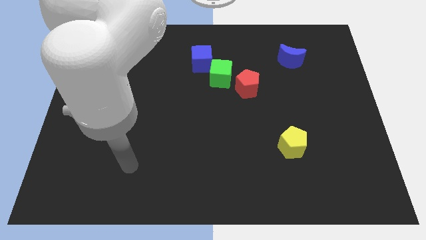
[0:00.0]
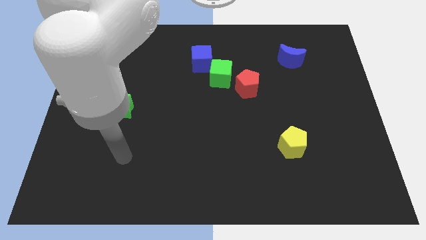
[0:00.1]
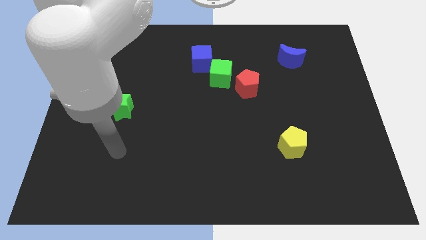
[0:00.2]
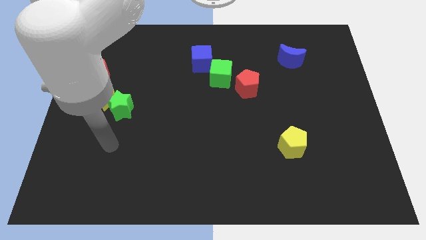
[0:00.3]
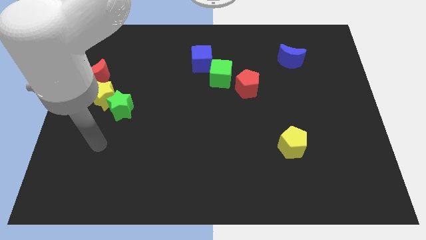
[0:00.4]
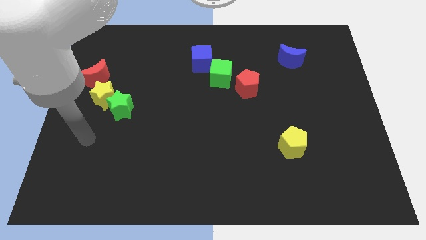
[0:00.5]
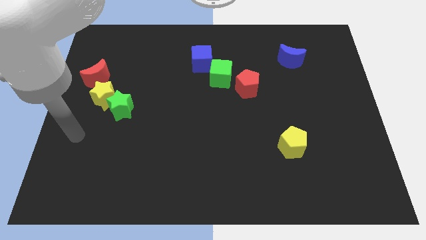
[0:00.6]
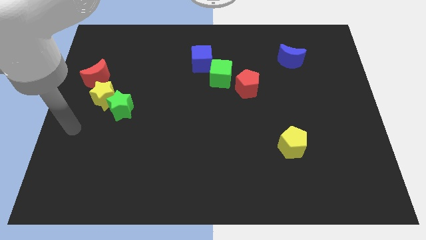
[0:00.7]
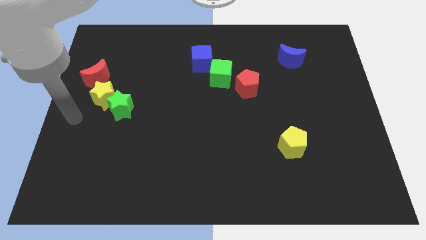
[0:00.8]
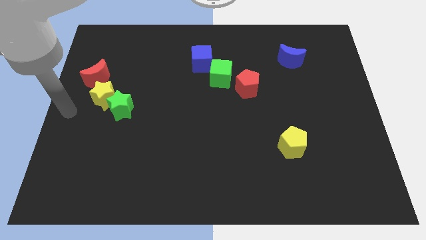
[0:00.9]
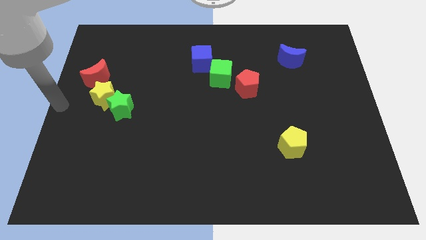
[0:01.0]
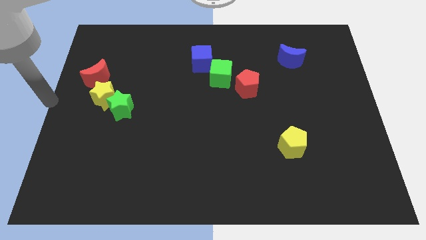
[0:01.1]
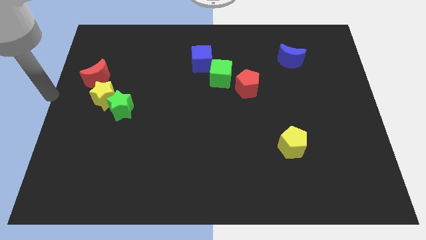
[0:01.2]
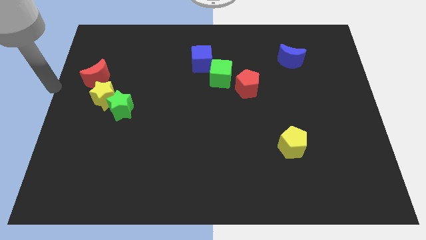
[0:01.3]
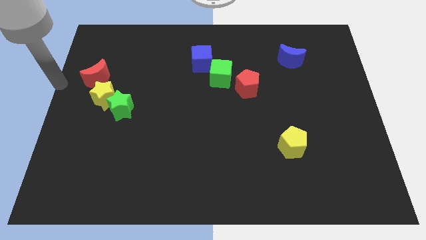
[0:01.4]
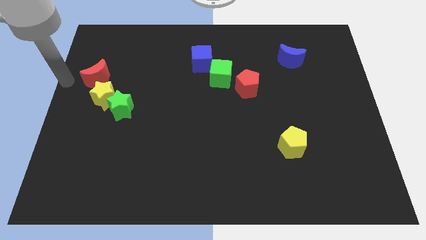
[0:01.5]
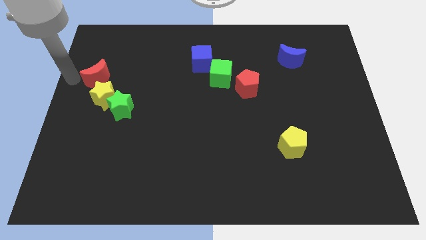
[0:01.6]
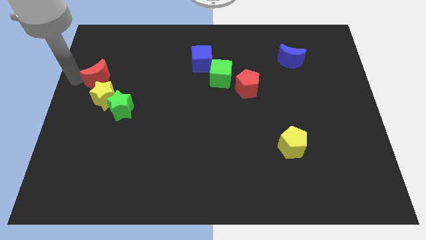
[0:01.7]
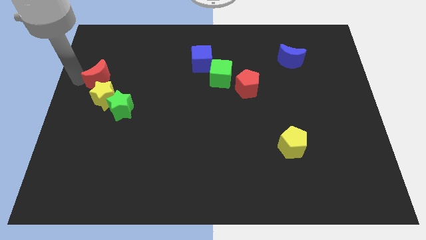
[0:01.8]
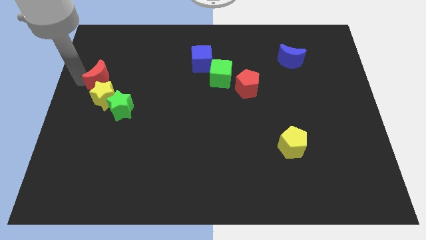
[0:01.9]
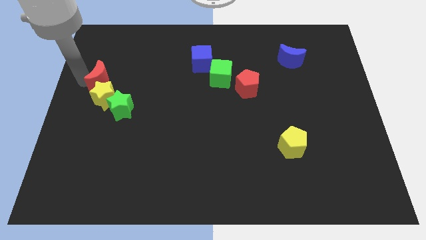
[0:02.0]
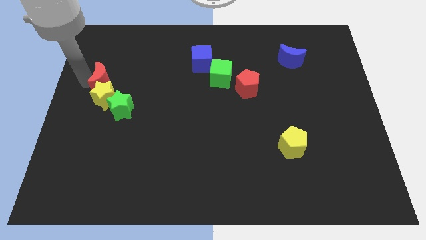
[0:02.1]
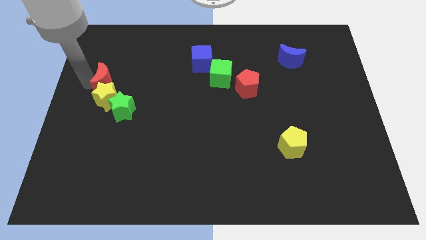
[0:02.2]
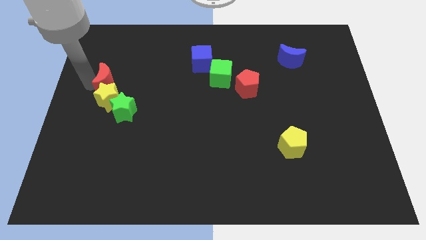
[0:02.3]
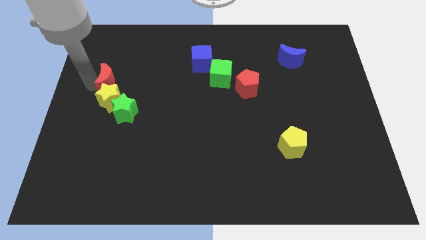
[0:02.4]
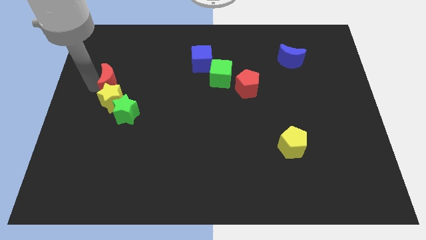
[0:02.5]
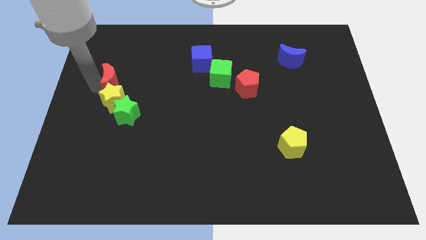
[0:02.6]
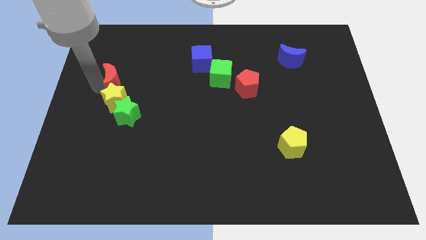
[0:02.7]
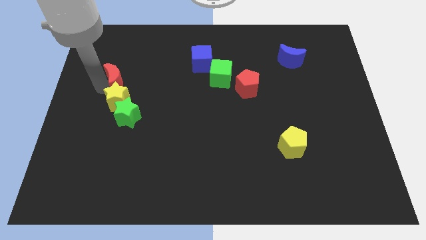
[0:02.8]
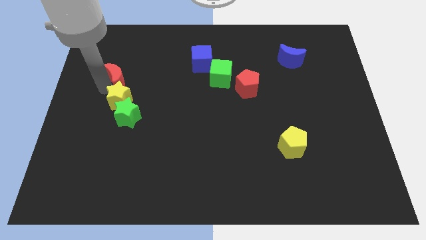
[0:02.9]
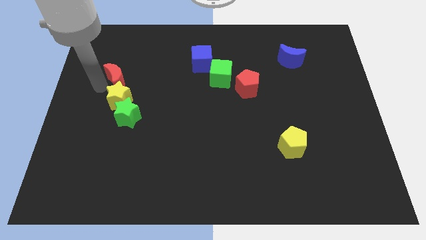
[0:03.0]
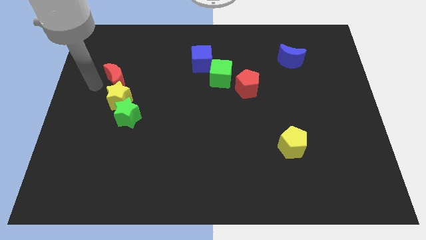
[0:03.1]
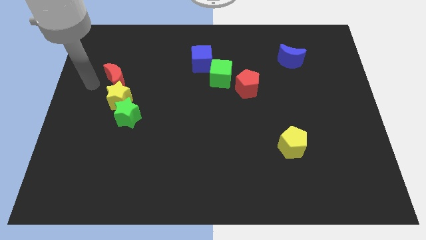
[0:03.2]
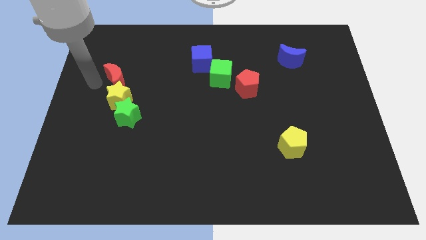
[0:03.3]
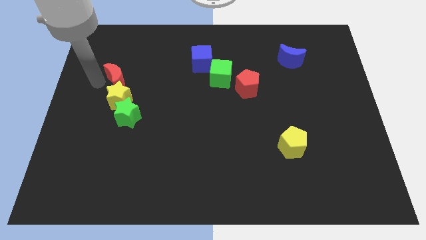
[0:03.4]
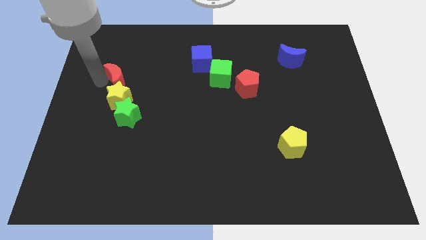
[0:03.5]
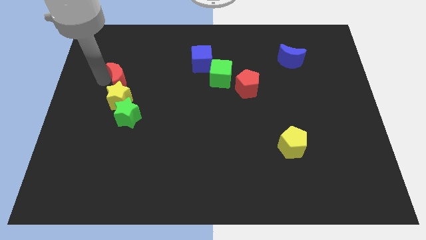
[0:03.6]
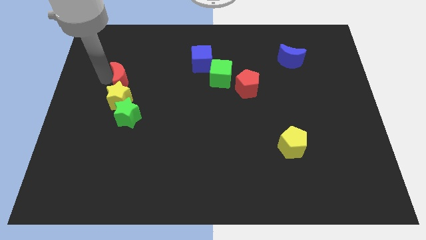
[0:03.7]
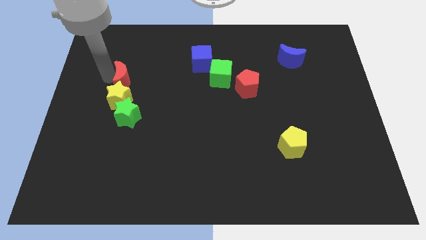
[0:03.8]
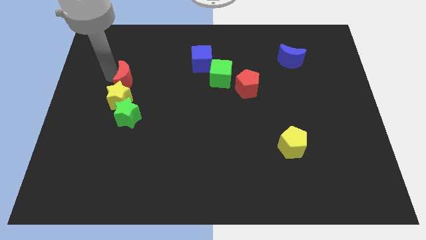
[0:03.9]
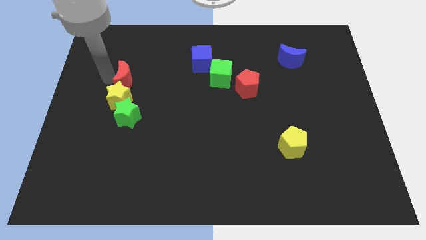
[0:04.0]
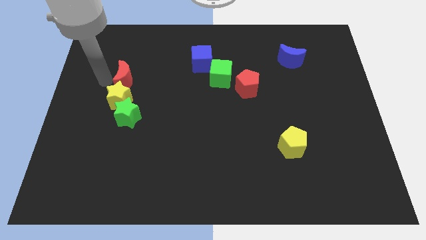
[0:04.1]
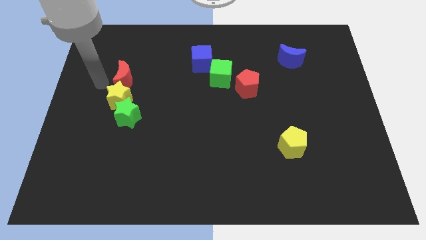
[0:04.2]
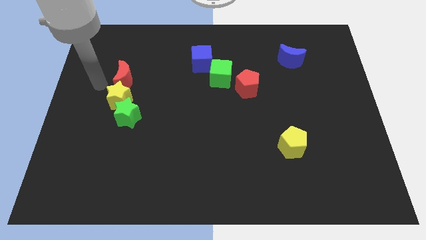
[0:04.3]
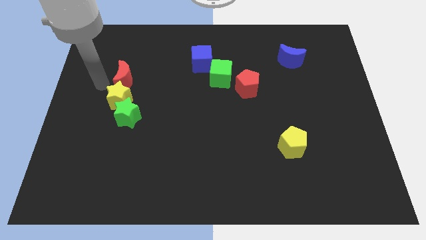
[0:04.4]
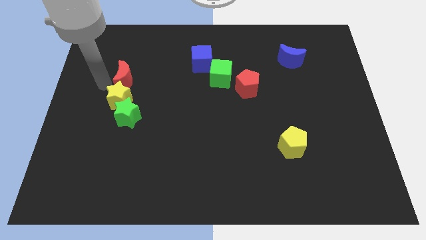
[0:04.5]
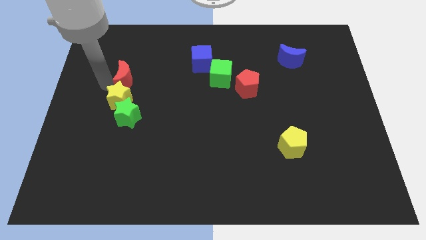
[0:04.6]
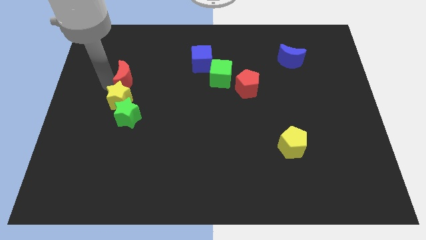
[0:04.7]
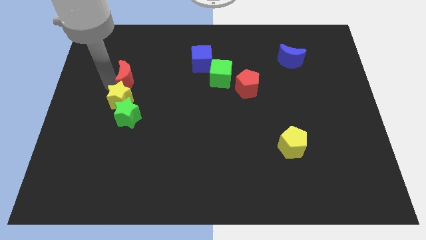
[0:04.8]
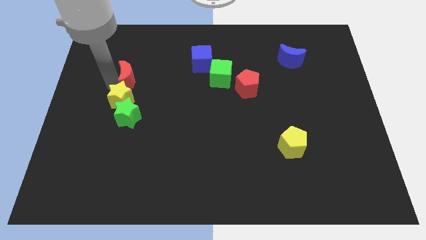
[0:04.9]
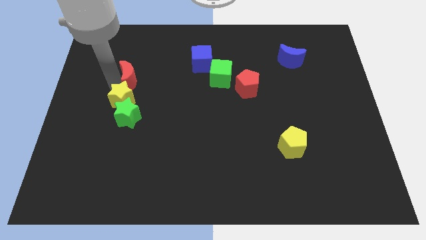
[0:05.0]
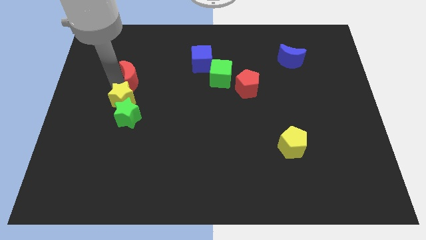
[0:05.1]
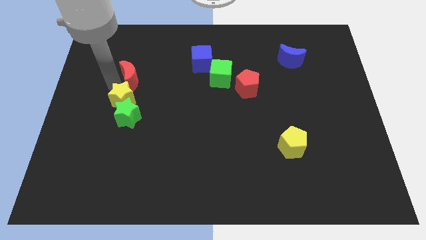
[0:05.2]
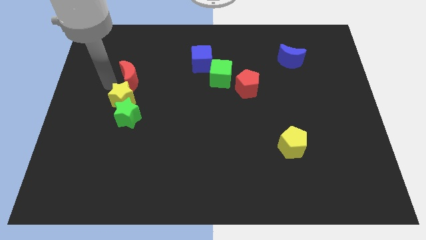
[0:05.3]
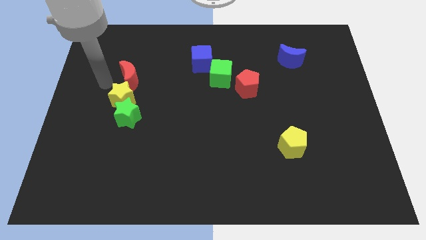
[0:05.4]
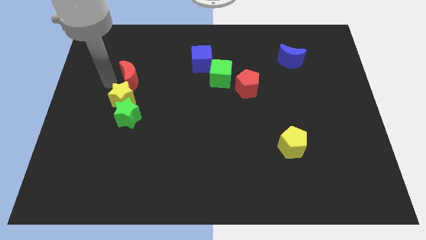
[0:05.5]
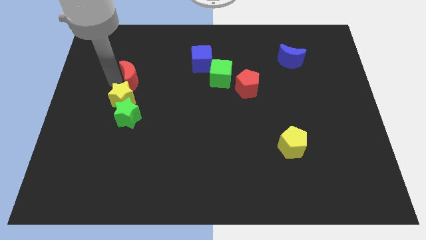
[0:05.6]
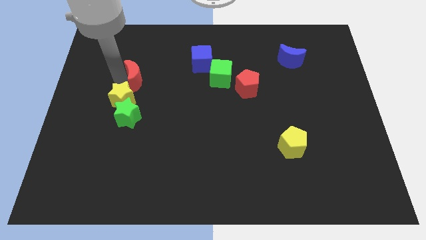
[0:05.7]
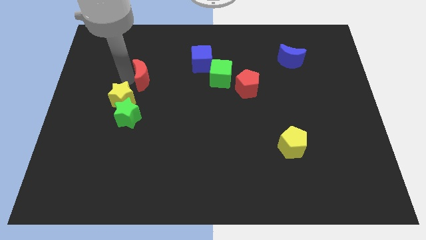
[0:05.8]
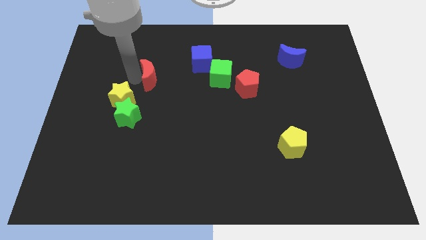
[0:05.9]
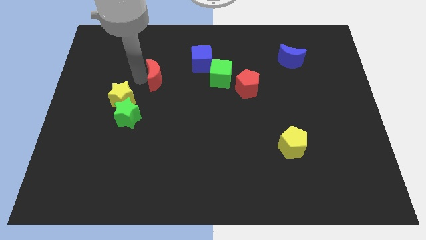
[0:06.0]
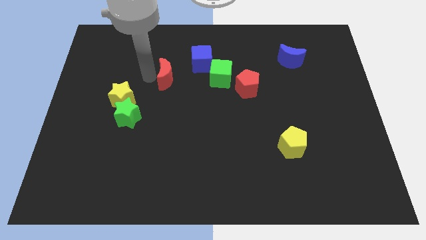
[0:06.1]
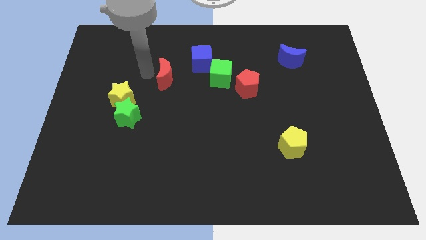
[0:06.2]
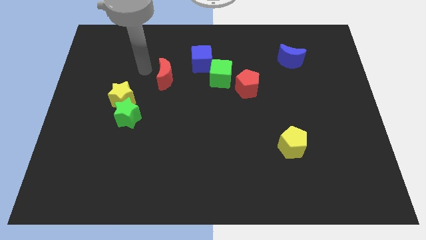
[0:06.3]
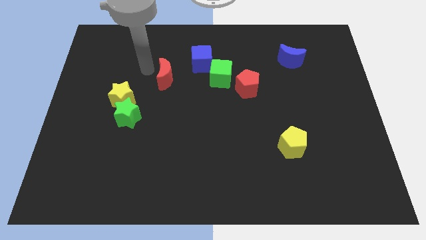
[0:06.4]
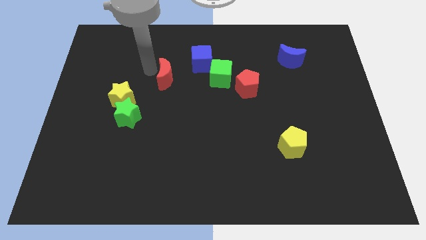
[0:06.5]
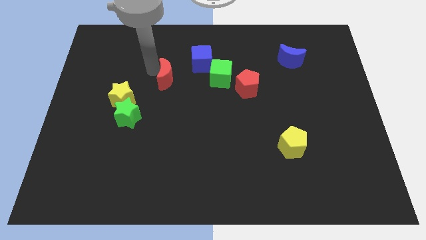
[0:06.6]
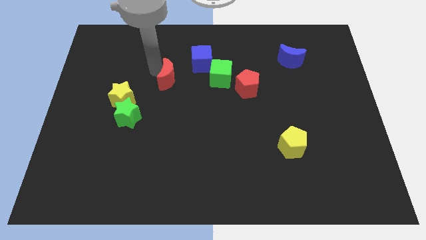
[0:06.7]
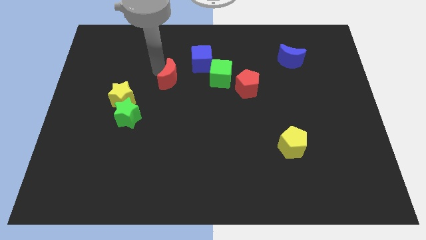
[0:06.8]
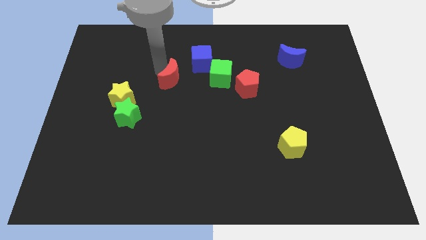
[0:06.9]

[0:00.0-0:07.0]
slide the red moon to the middle of the board

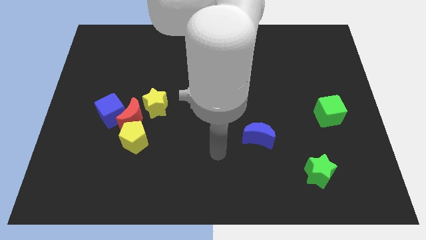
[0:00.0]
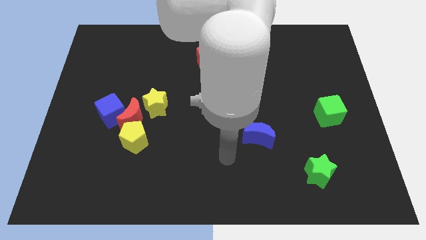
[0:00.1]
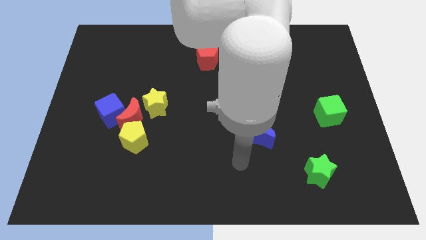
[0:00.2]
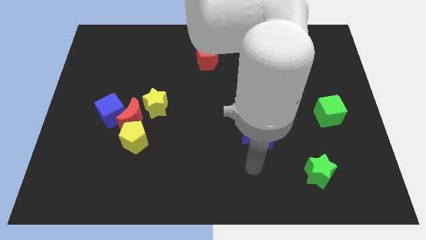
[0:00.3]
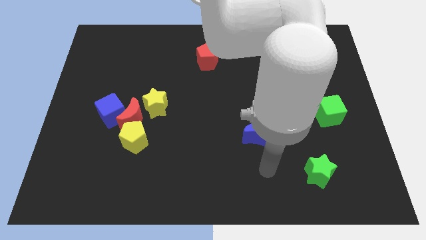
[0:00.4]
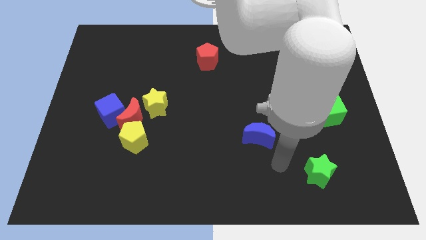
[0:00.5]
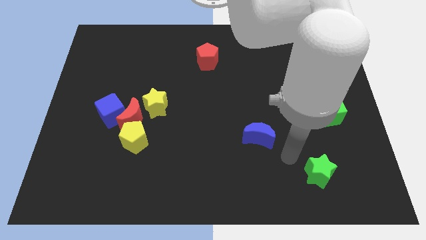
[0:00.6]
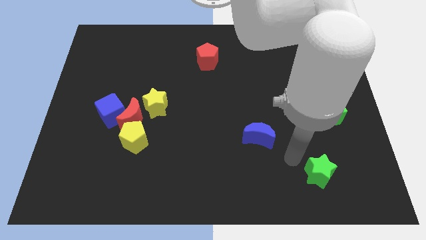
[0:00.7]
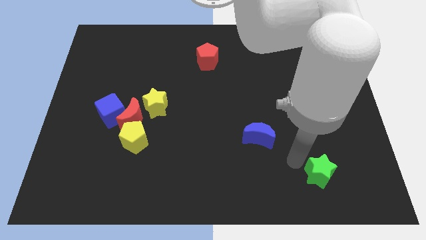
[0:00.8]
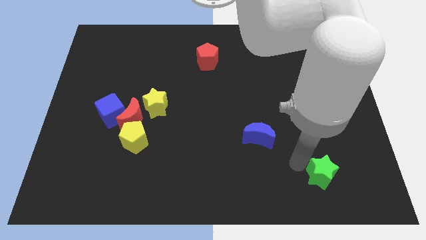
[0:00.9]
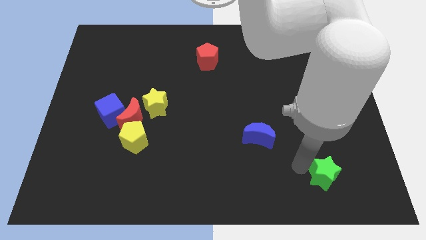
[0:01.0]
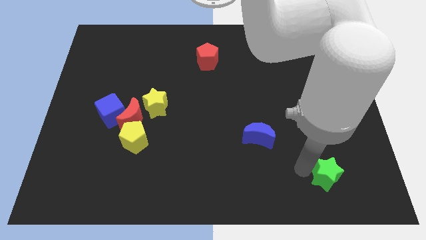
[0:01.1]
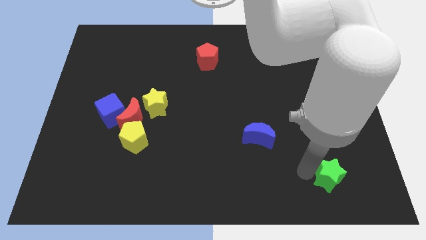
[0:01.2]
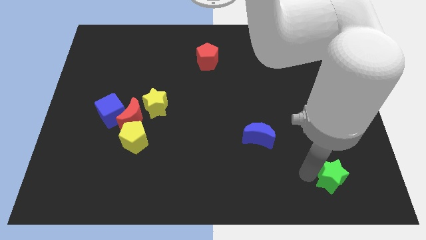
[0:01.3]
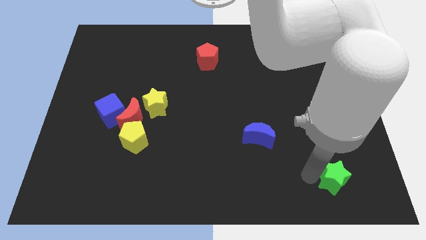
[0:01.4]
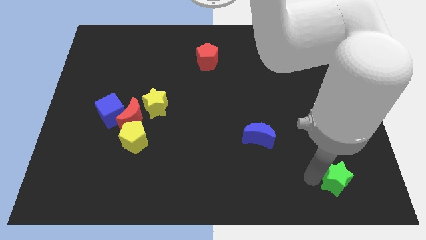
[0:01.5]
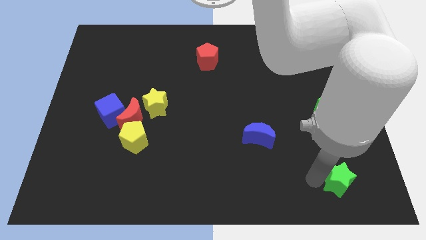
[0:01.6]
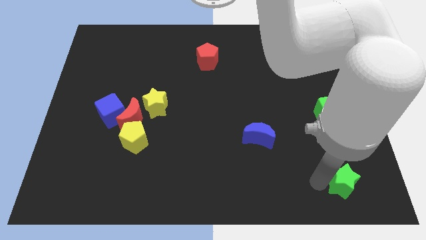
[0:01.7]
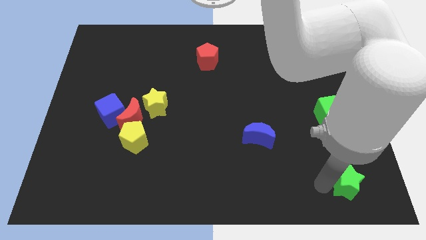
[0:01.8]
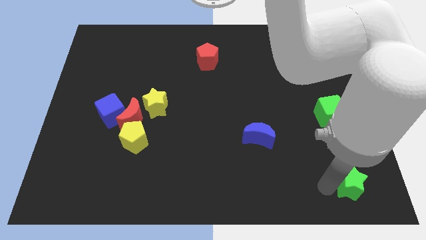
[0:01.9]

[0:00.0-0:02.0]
put the green star to the bottom right
